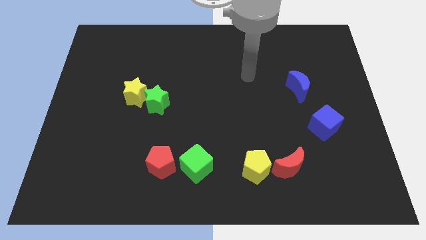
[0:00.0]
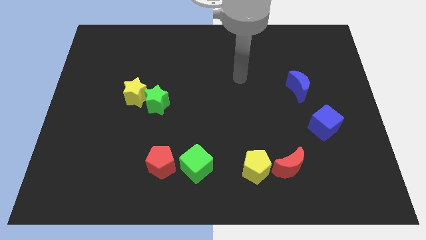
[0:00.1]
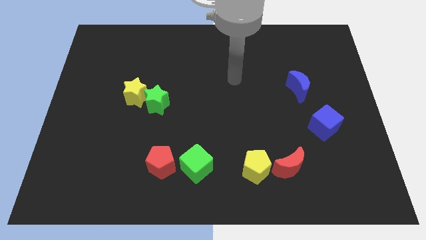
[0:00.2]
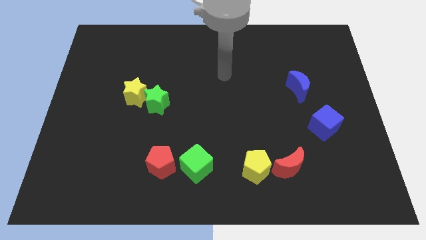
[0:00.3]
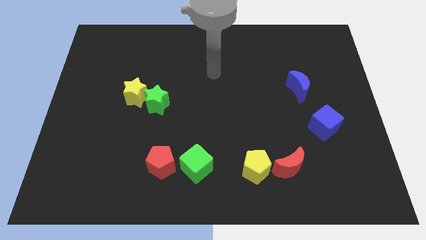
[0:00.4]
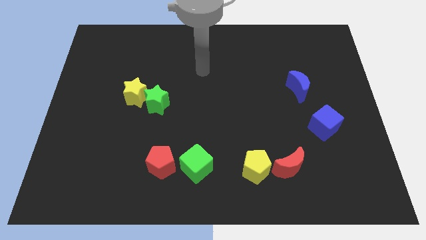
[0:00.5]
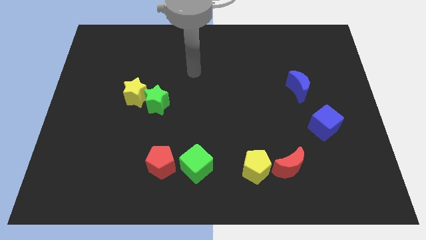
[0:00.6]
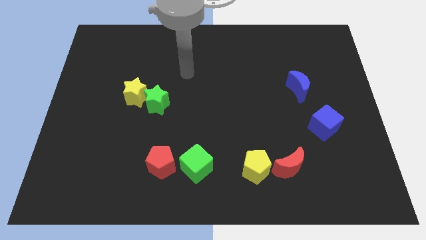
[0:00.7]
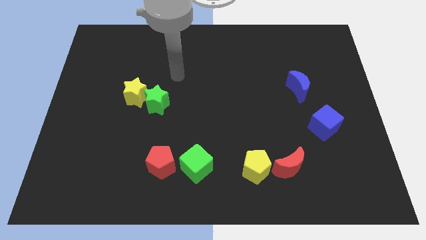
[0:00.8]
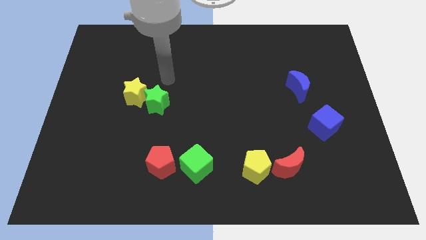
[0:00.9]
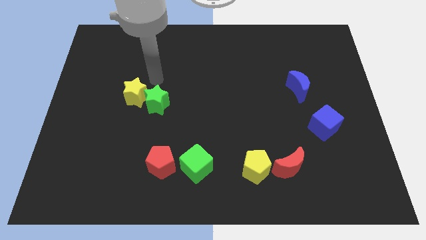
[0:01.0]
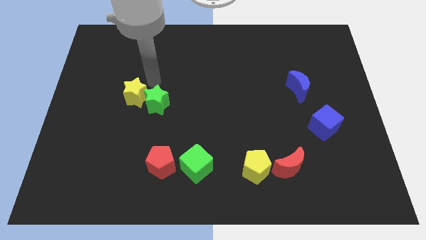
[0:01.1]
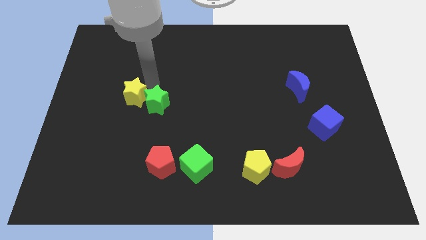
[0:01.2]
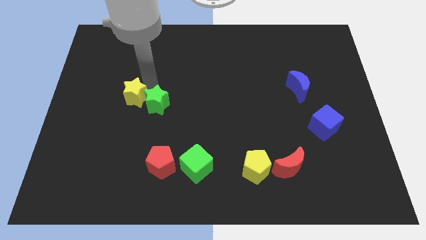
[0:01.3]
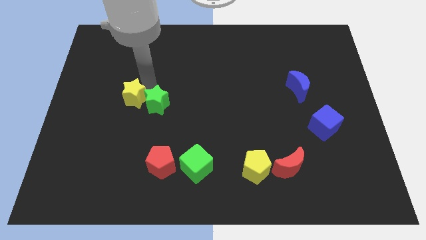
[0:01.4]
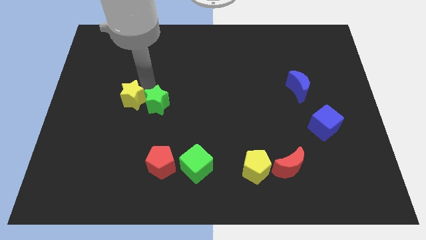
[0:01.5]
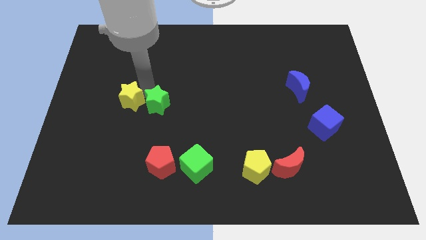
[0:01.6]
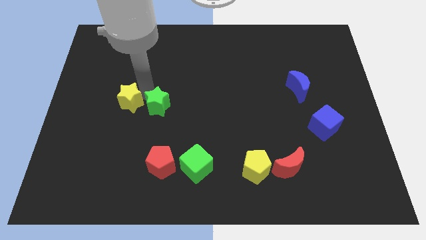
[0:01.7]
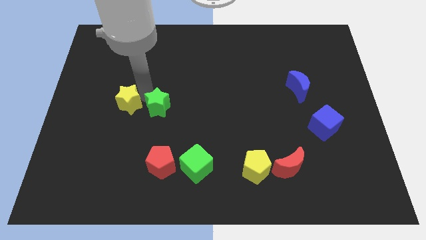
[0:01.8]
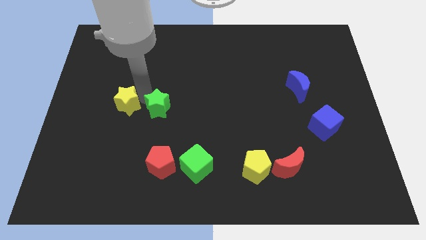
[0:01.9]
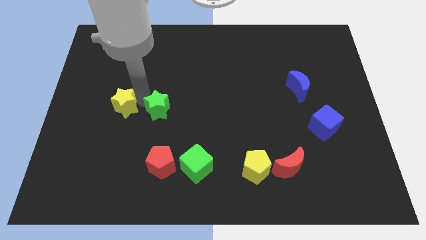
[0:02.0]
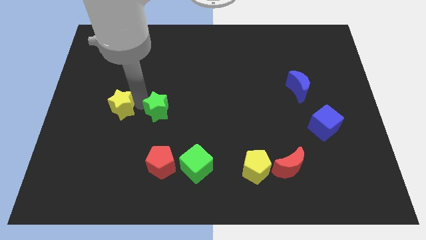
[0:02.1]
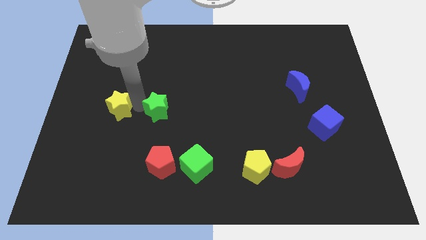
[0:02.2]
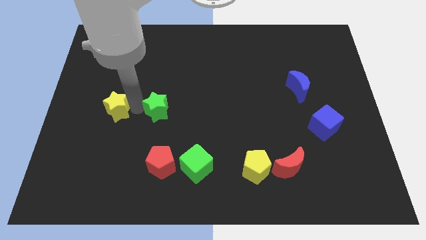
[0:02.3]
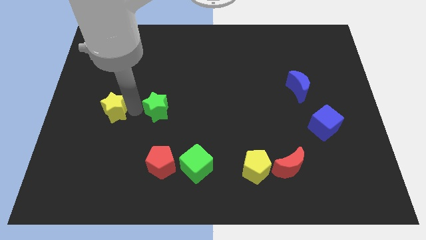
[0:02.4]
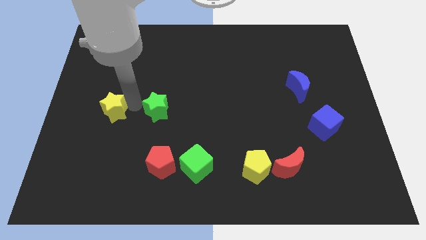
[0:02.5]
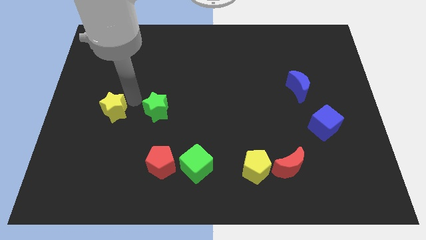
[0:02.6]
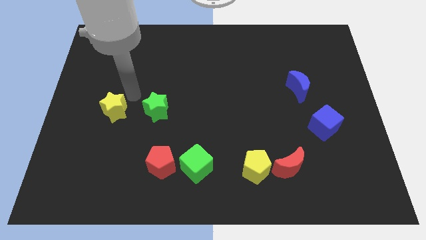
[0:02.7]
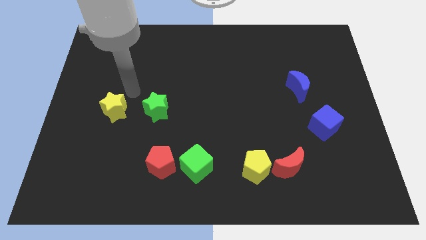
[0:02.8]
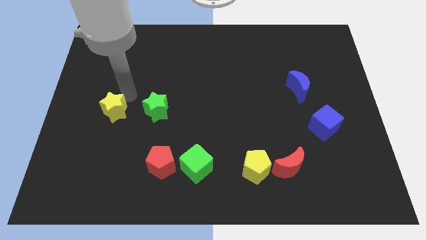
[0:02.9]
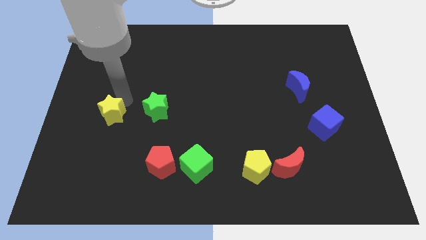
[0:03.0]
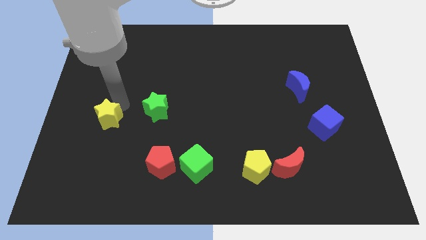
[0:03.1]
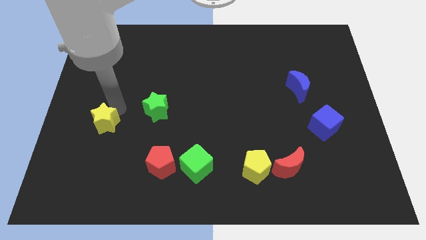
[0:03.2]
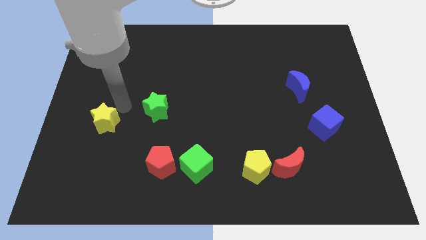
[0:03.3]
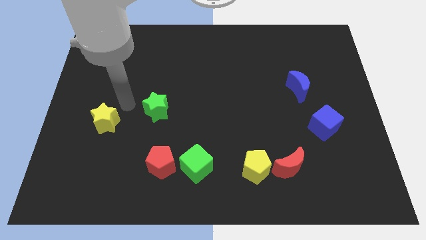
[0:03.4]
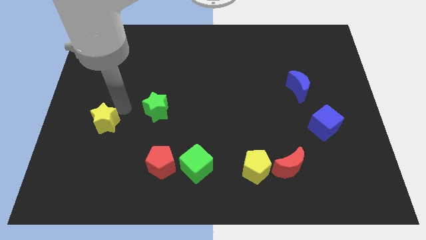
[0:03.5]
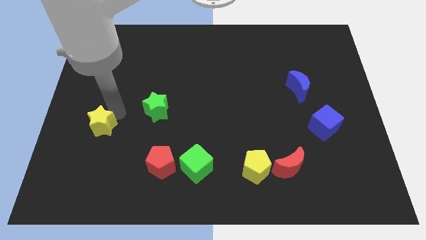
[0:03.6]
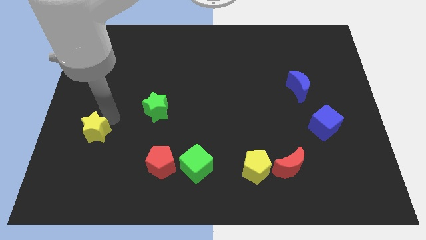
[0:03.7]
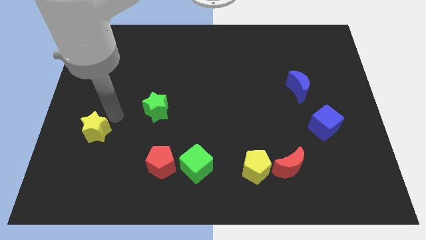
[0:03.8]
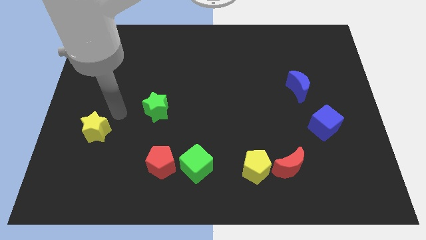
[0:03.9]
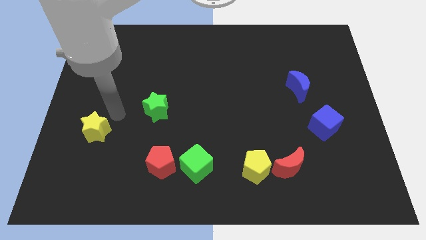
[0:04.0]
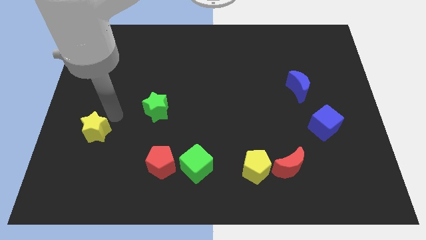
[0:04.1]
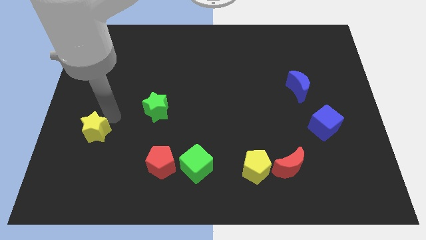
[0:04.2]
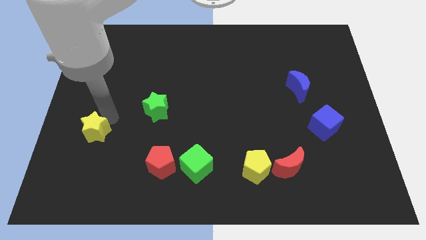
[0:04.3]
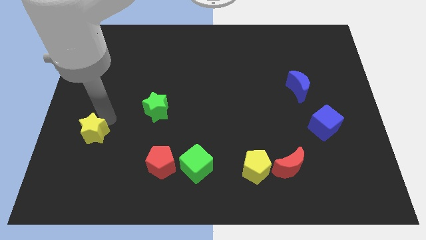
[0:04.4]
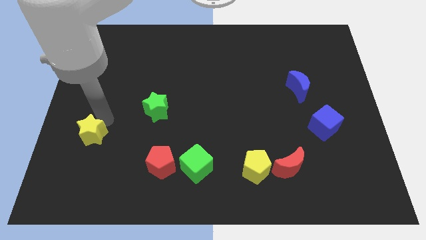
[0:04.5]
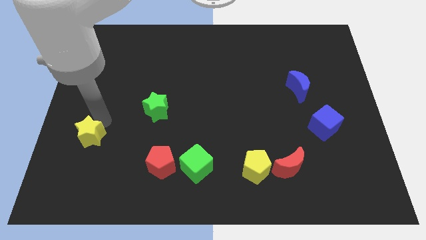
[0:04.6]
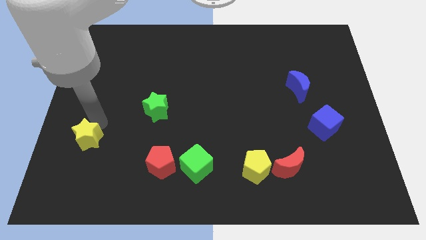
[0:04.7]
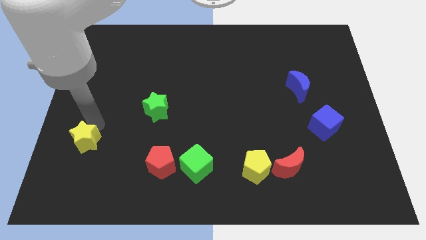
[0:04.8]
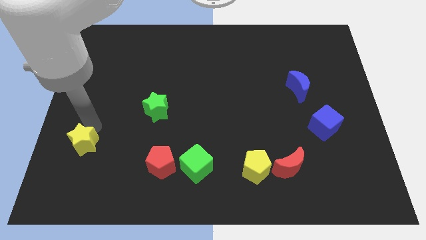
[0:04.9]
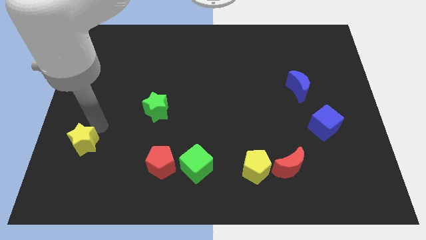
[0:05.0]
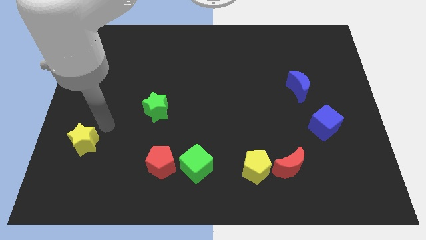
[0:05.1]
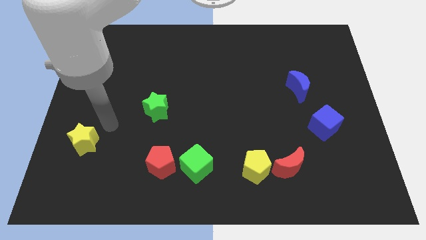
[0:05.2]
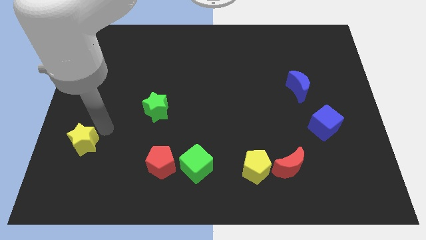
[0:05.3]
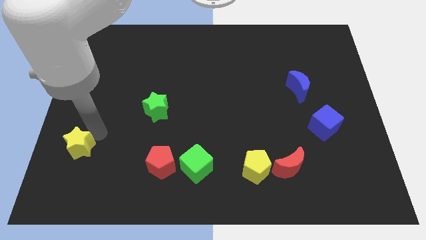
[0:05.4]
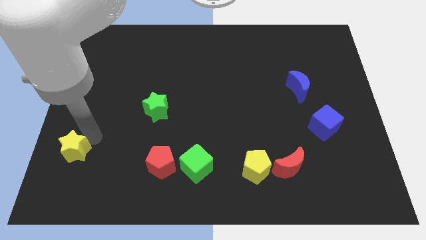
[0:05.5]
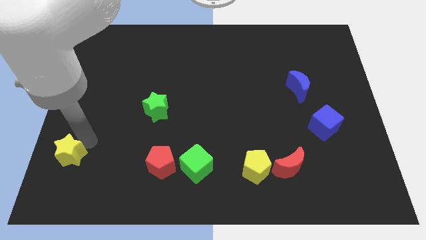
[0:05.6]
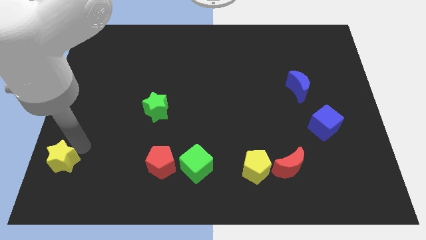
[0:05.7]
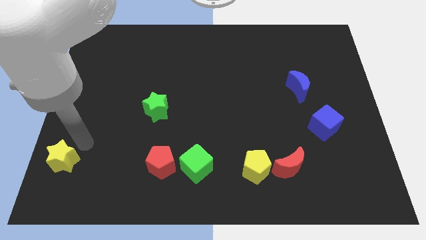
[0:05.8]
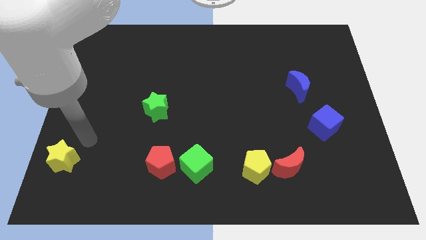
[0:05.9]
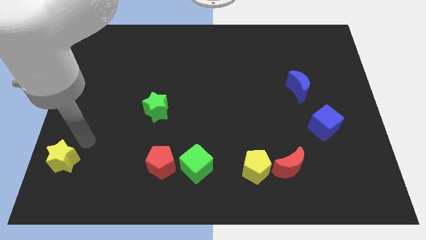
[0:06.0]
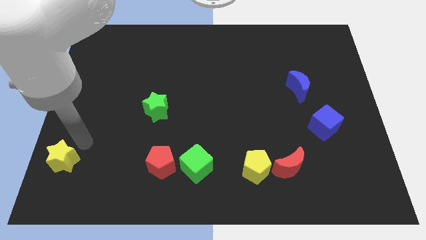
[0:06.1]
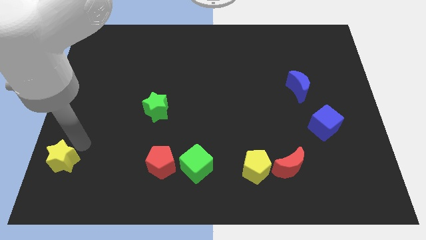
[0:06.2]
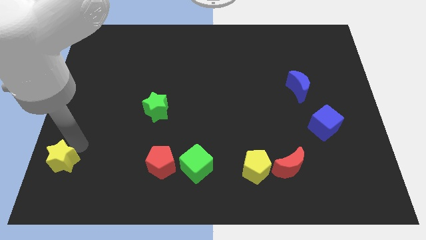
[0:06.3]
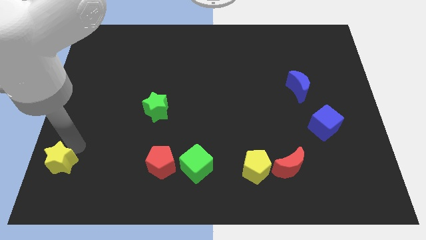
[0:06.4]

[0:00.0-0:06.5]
slide the yellow star to the lower left corner
